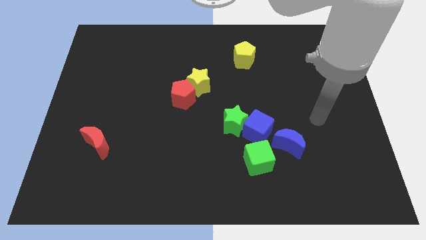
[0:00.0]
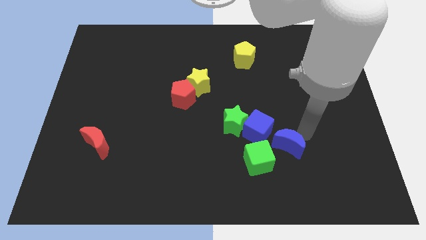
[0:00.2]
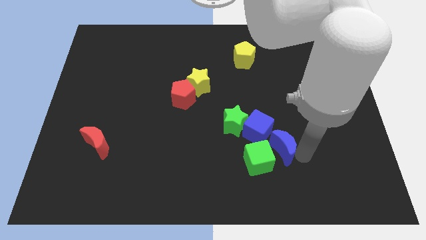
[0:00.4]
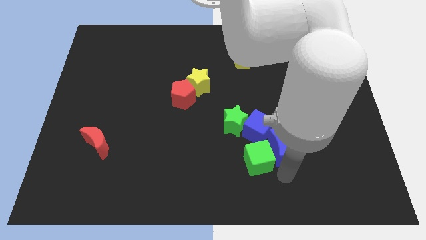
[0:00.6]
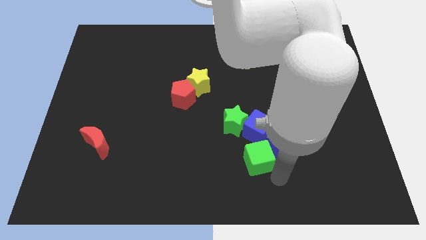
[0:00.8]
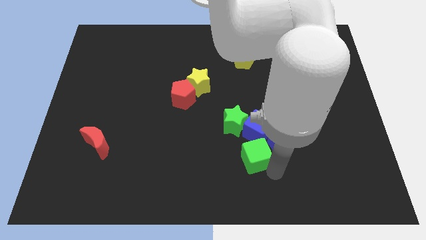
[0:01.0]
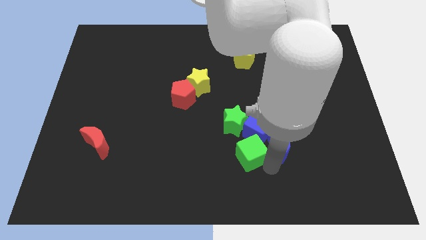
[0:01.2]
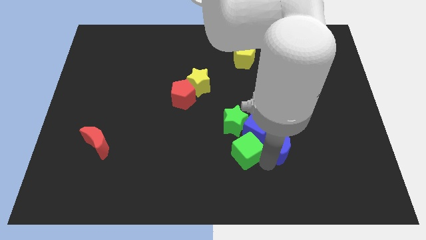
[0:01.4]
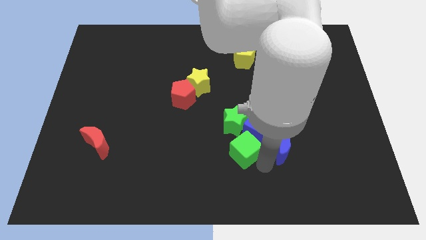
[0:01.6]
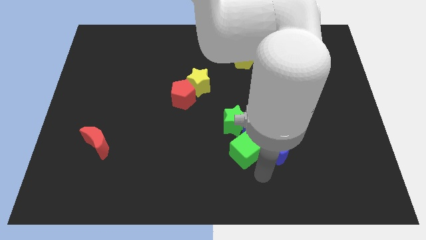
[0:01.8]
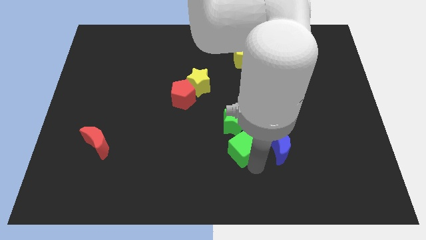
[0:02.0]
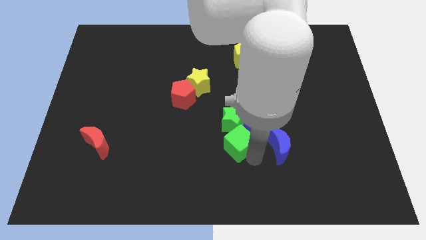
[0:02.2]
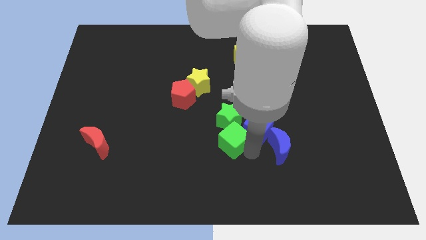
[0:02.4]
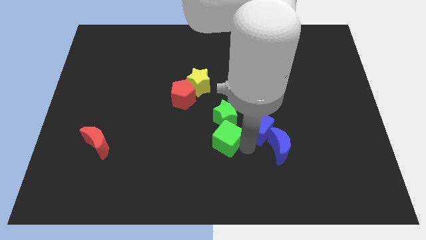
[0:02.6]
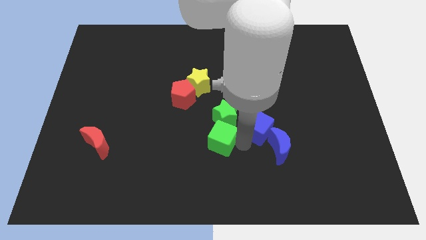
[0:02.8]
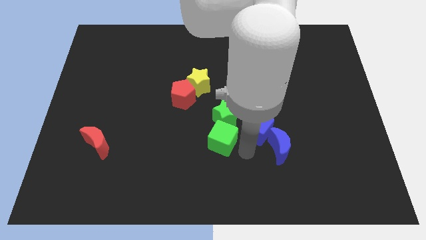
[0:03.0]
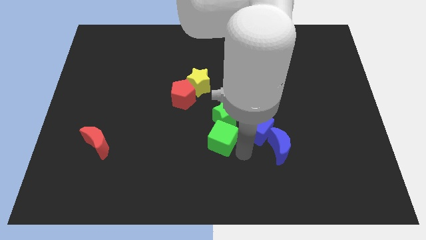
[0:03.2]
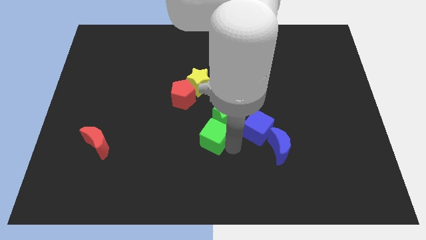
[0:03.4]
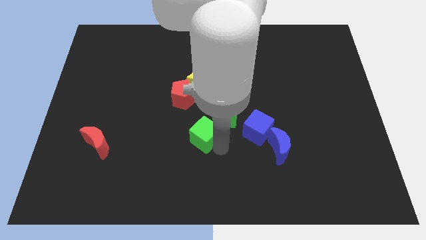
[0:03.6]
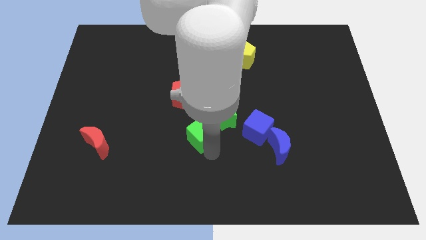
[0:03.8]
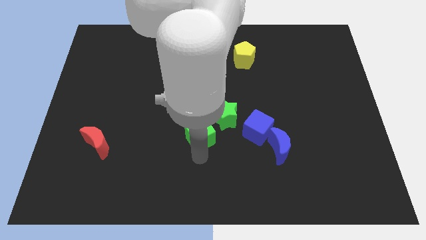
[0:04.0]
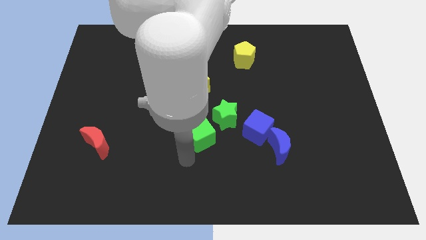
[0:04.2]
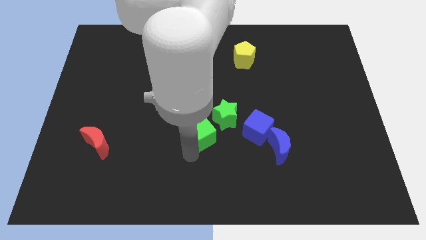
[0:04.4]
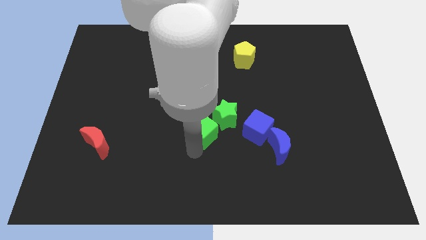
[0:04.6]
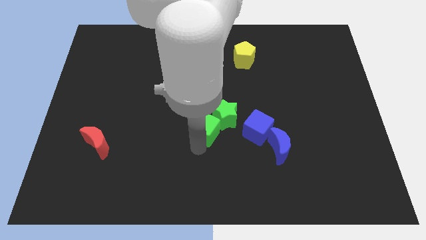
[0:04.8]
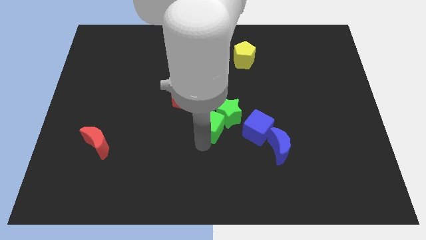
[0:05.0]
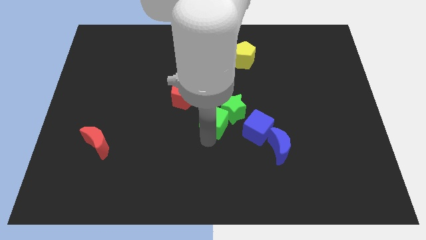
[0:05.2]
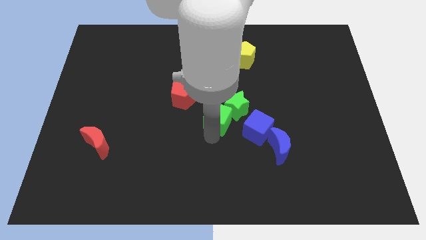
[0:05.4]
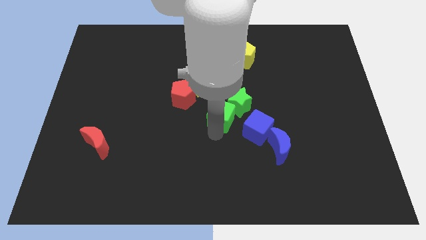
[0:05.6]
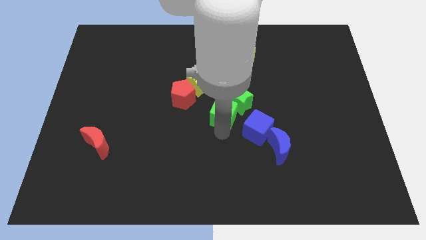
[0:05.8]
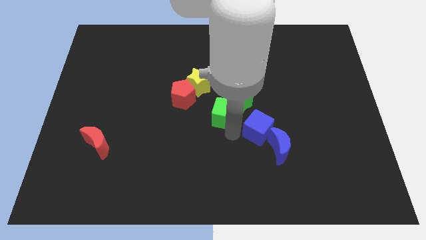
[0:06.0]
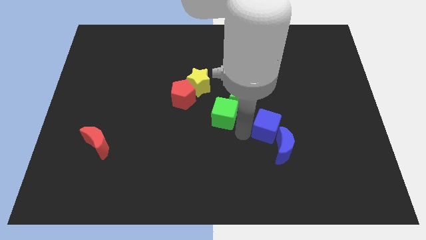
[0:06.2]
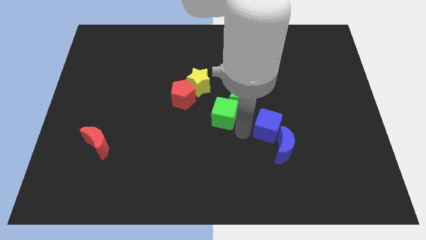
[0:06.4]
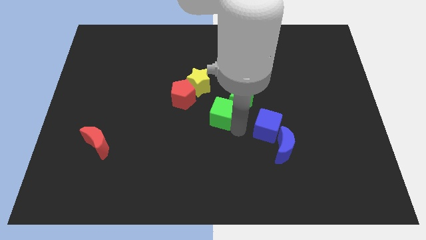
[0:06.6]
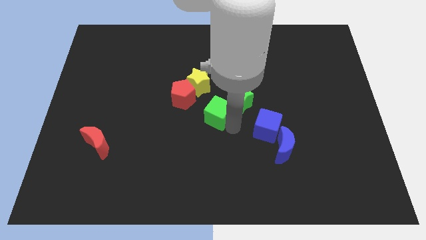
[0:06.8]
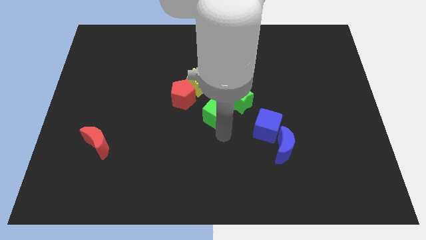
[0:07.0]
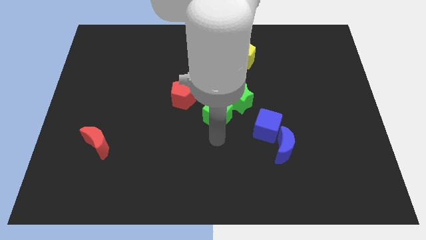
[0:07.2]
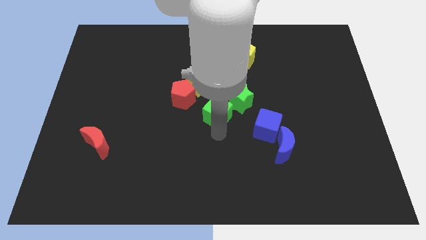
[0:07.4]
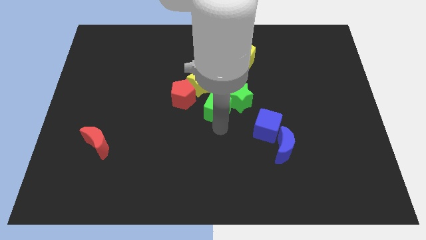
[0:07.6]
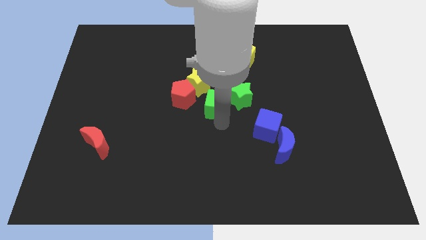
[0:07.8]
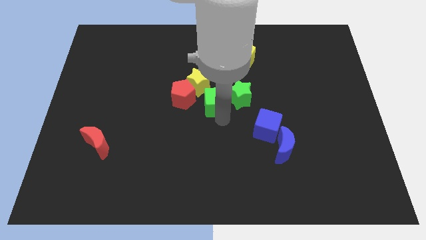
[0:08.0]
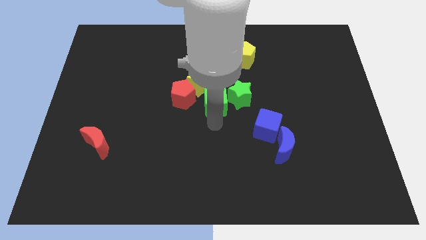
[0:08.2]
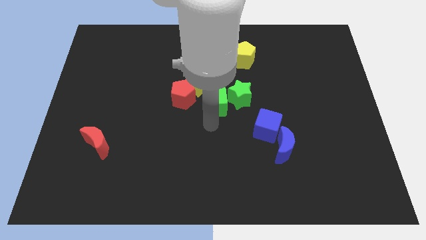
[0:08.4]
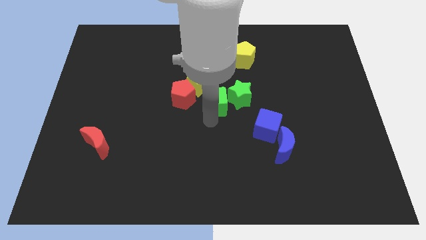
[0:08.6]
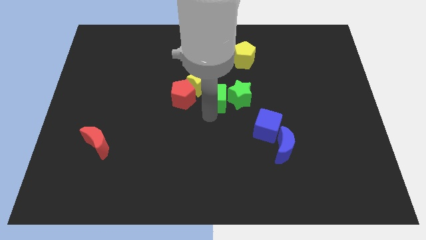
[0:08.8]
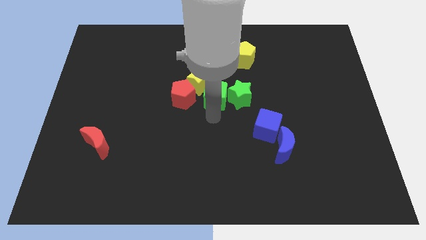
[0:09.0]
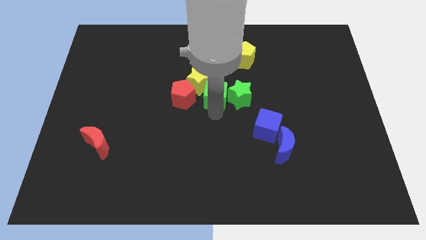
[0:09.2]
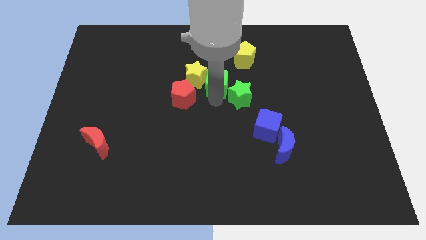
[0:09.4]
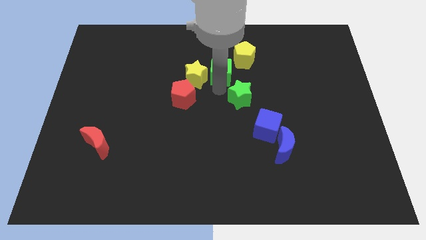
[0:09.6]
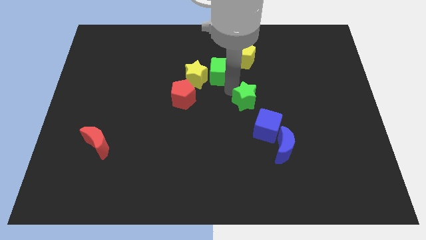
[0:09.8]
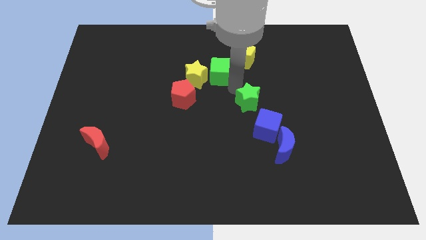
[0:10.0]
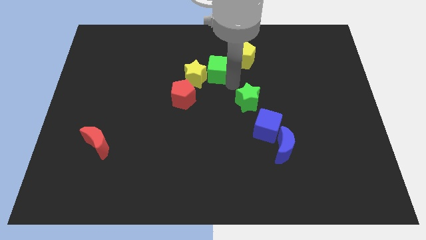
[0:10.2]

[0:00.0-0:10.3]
slide the green cube just left of the yellow pentagon

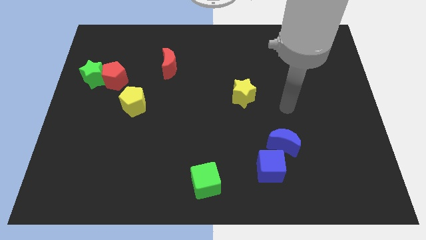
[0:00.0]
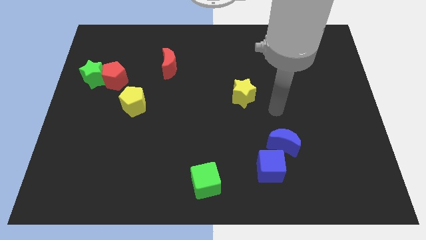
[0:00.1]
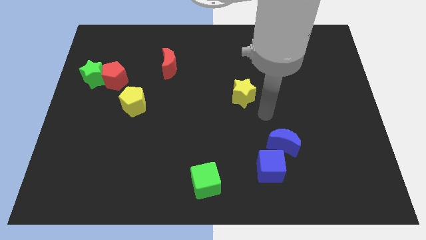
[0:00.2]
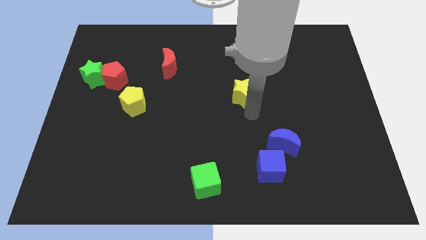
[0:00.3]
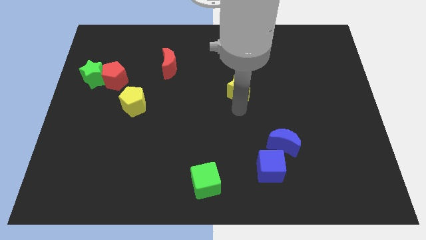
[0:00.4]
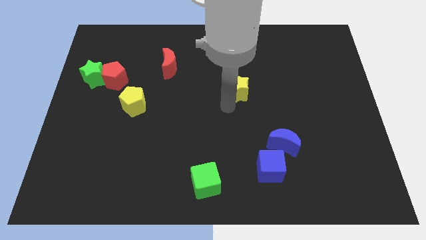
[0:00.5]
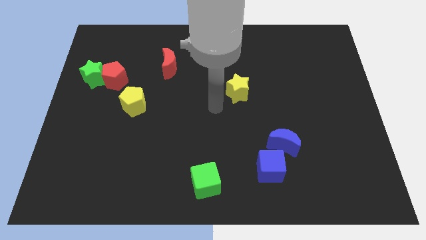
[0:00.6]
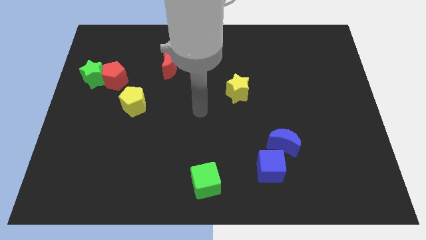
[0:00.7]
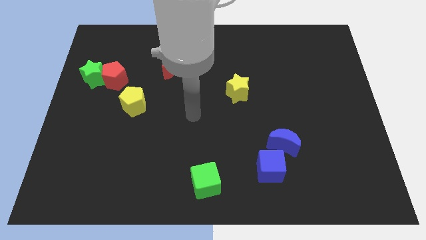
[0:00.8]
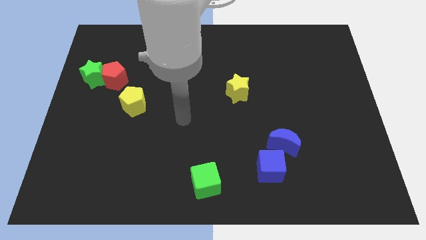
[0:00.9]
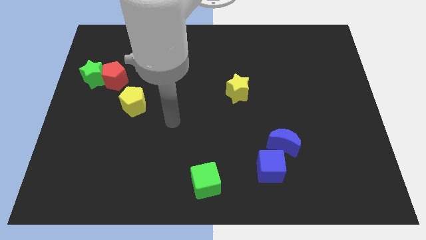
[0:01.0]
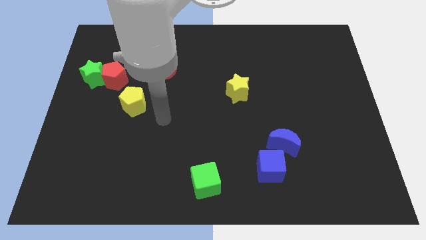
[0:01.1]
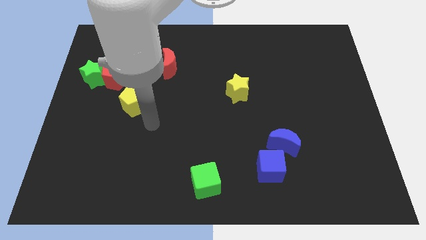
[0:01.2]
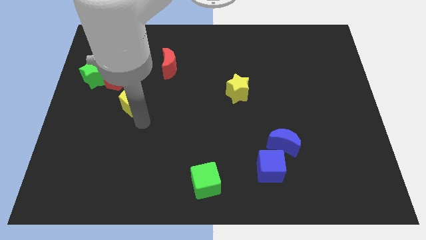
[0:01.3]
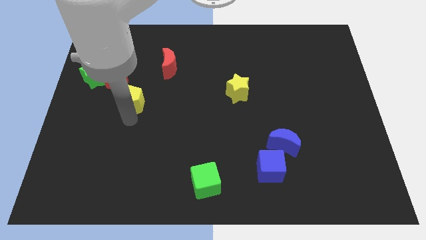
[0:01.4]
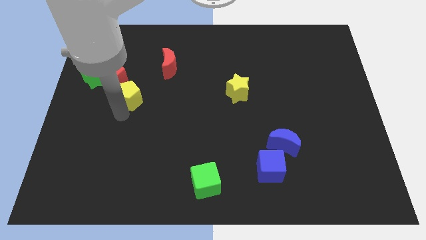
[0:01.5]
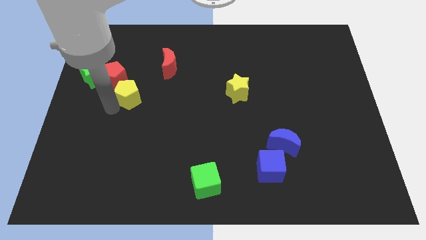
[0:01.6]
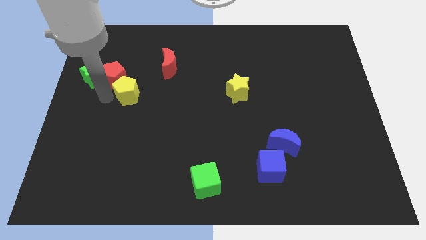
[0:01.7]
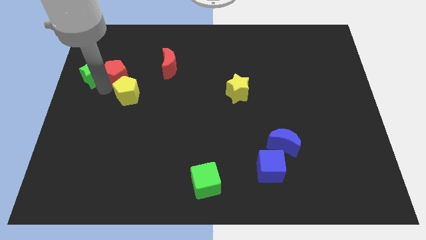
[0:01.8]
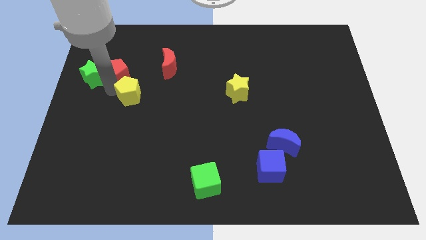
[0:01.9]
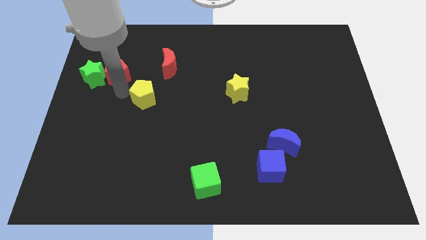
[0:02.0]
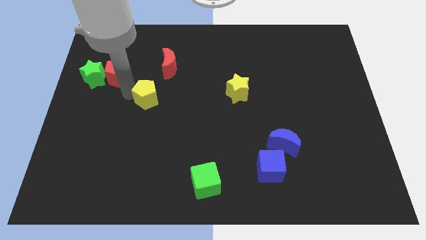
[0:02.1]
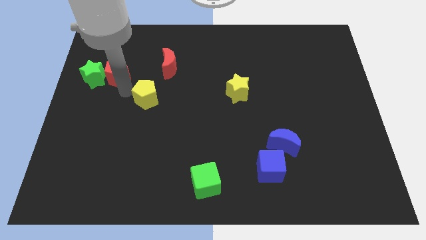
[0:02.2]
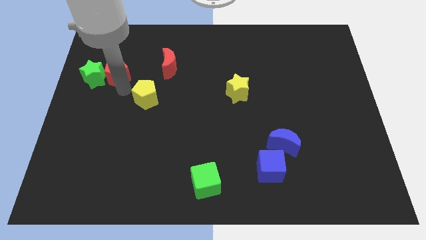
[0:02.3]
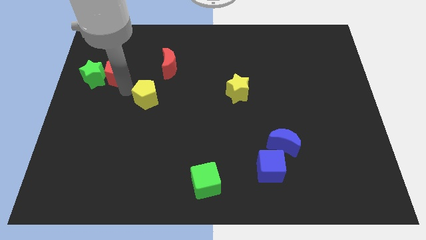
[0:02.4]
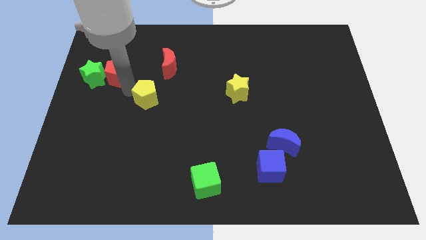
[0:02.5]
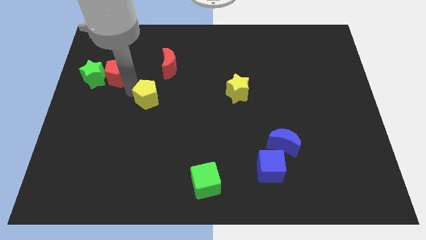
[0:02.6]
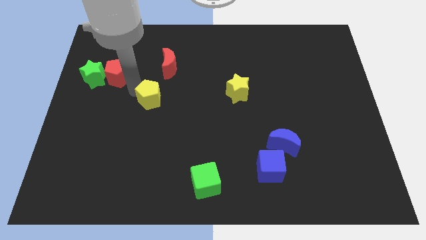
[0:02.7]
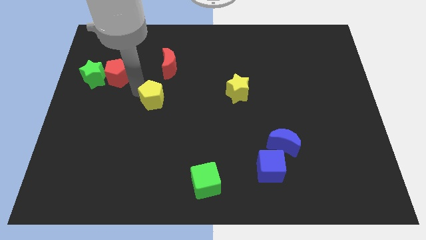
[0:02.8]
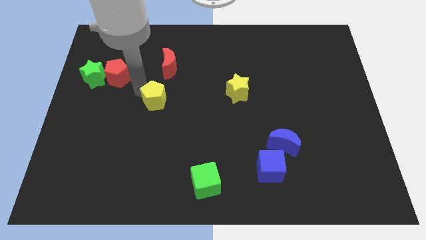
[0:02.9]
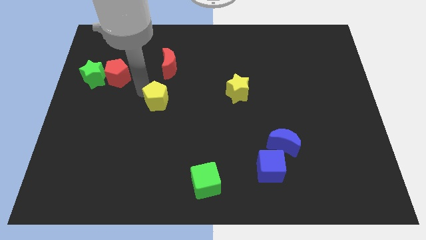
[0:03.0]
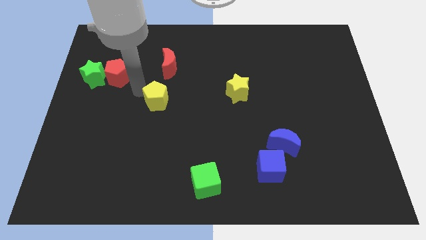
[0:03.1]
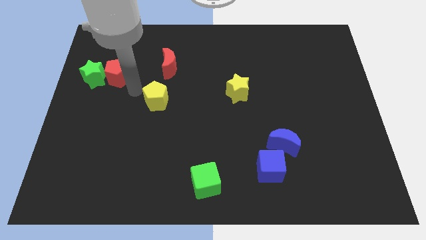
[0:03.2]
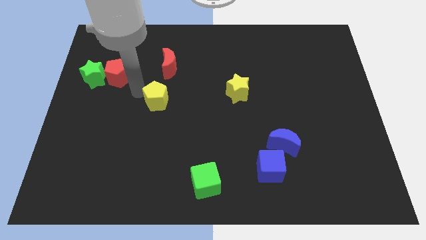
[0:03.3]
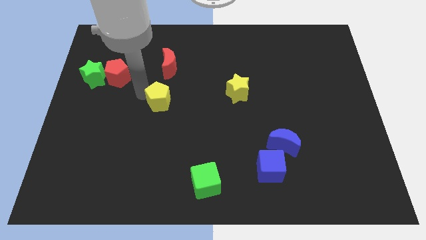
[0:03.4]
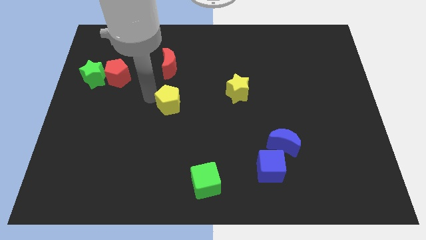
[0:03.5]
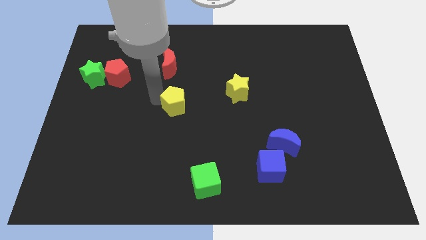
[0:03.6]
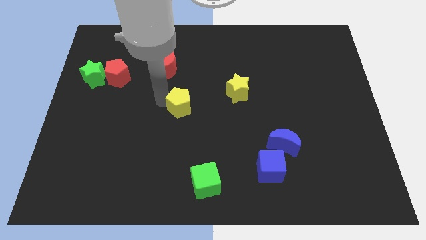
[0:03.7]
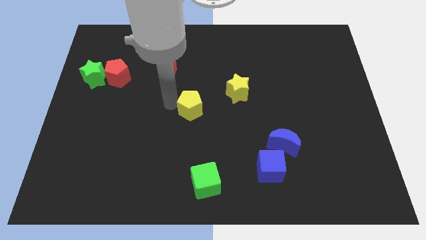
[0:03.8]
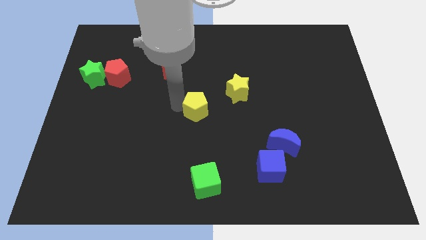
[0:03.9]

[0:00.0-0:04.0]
slide the yellow pentagon to the bottom left side of the yellow star
